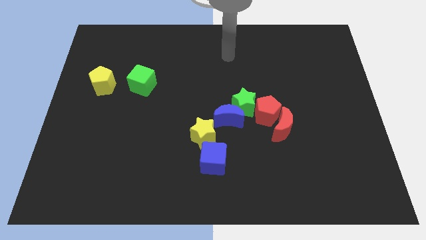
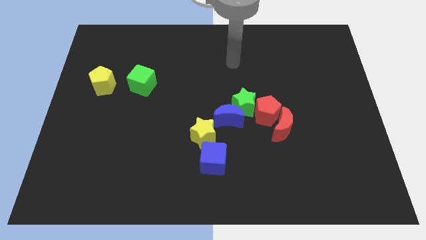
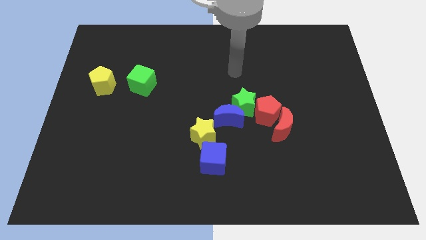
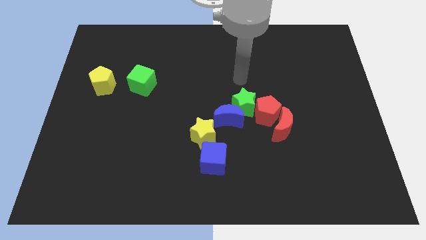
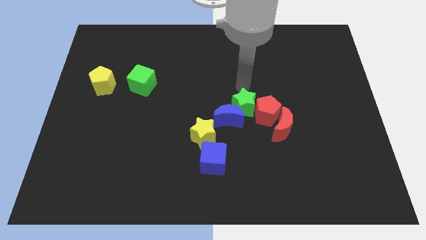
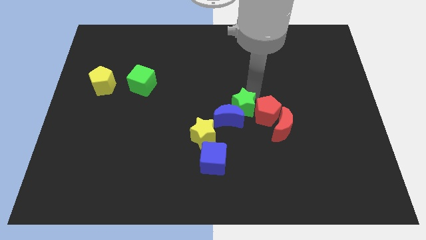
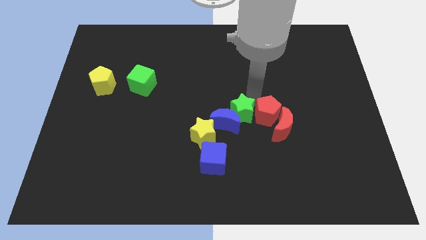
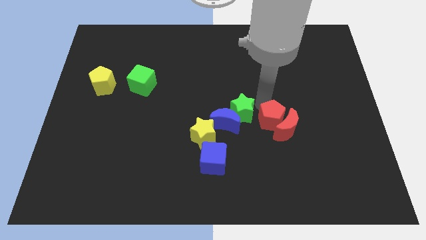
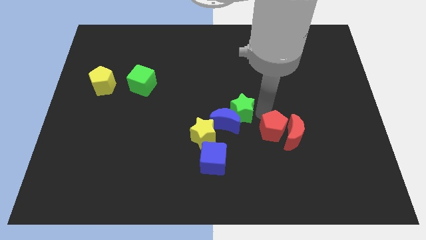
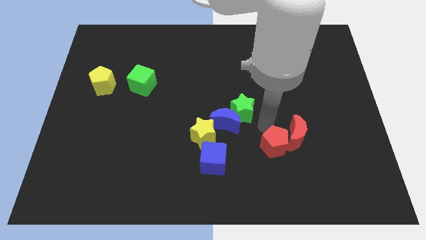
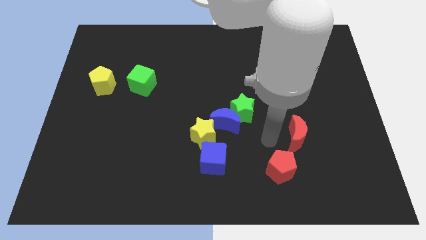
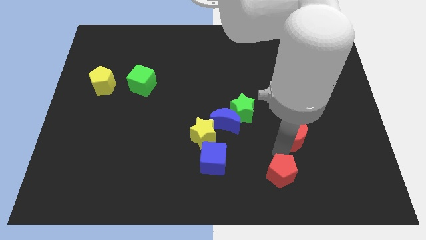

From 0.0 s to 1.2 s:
move the red moon away from the red pentagon

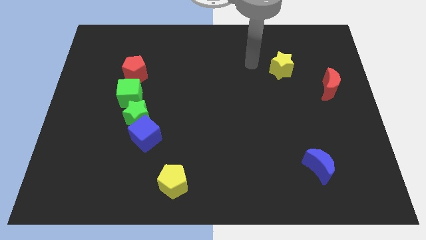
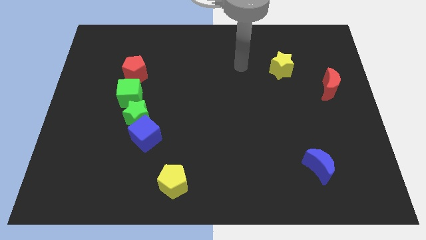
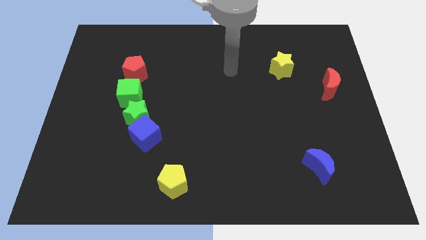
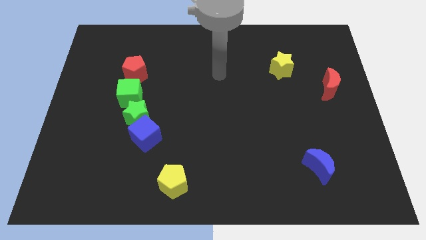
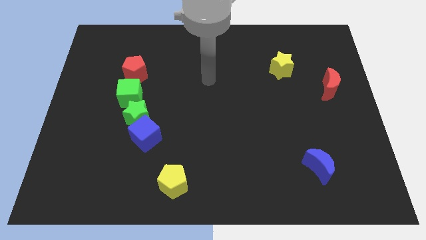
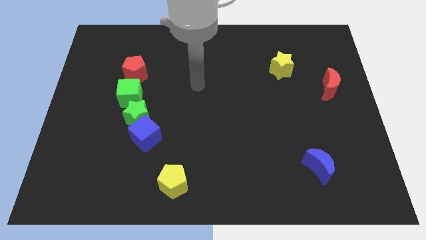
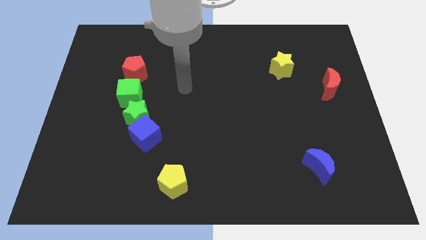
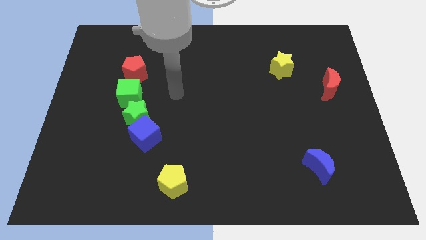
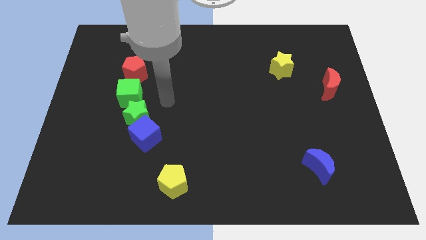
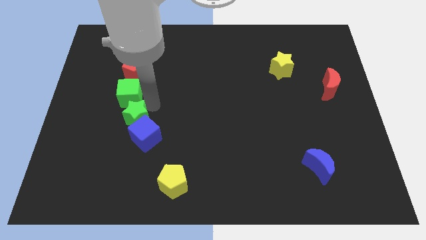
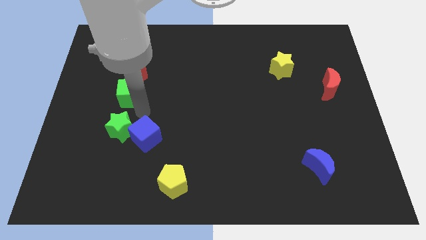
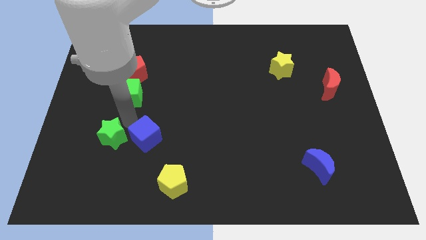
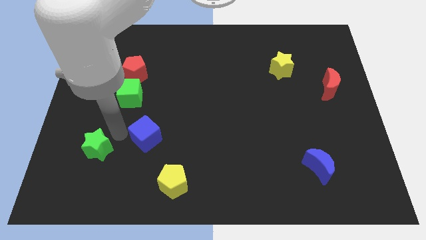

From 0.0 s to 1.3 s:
move the blue cube away from the green star

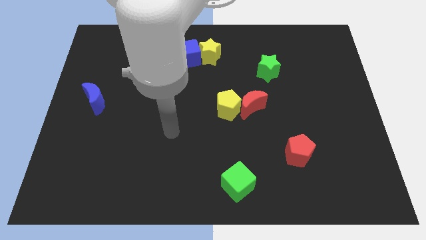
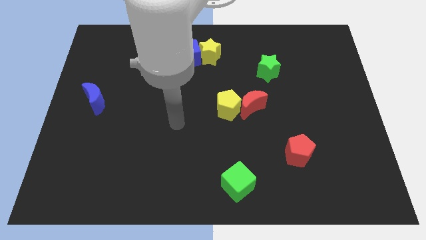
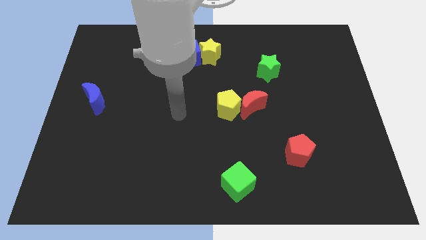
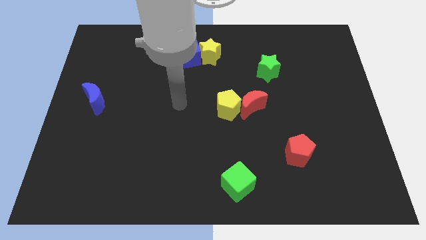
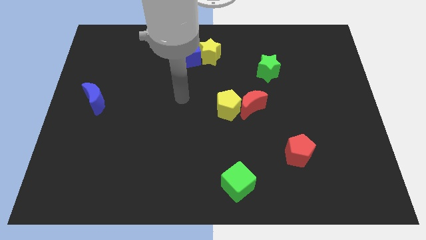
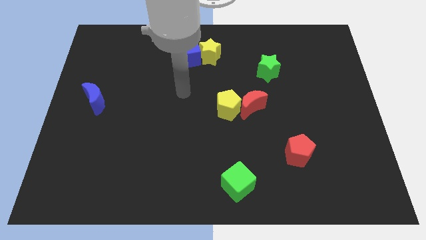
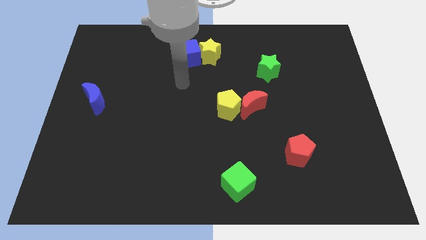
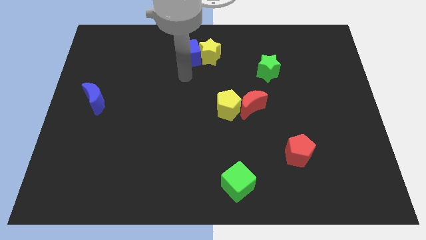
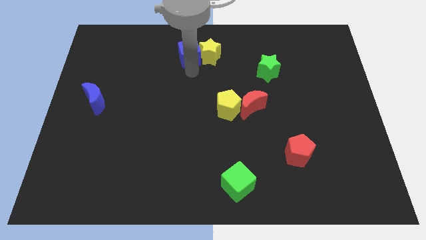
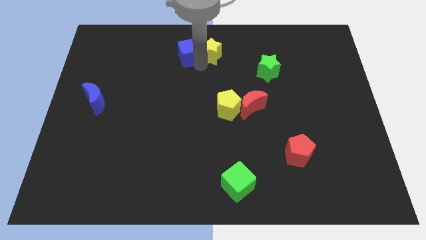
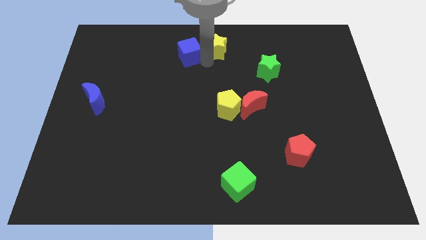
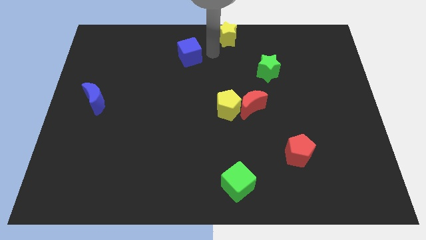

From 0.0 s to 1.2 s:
move the blue cube away from the yellow star

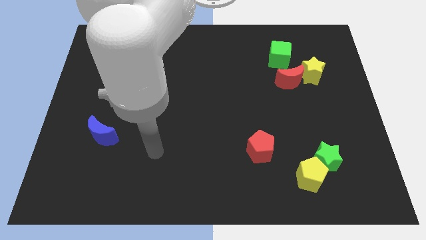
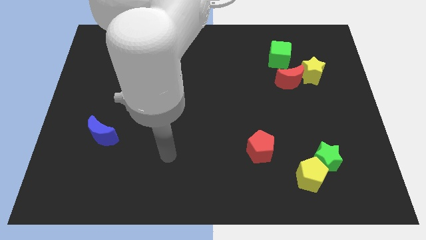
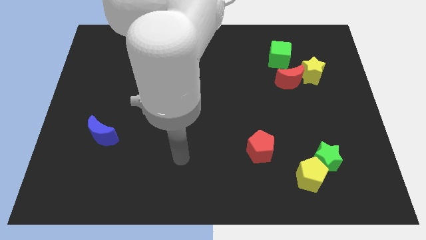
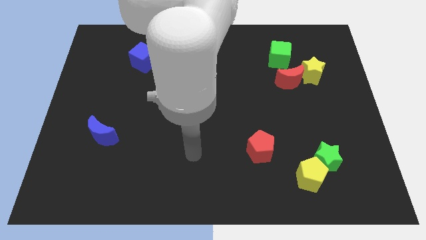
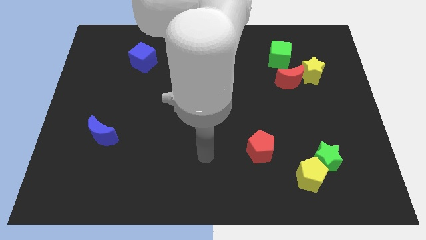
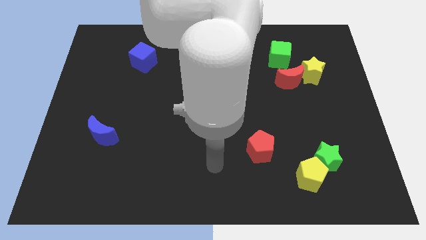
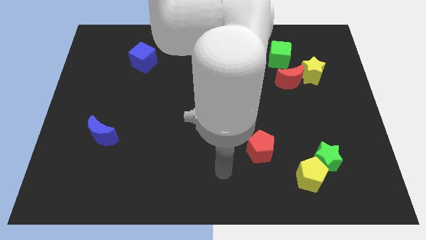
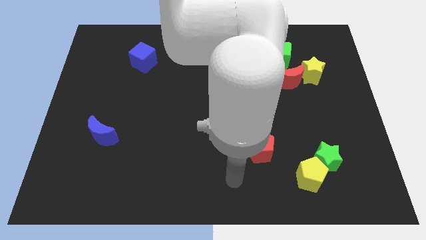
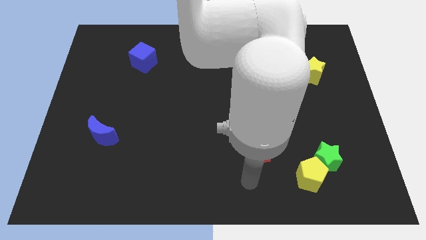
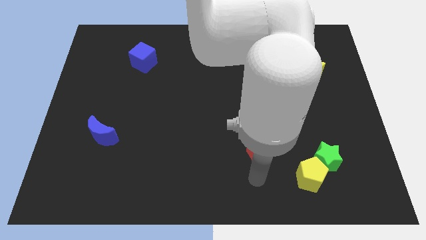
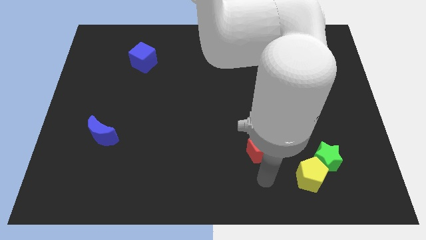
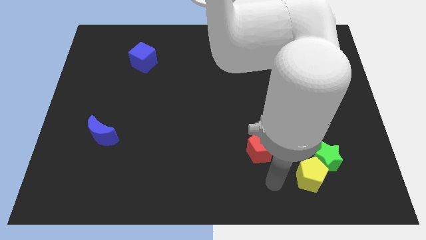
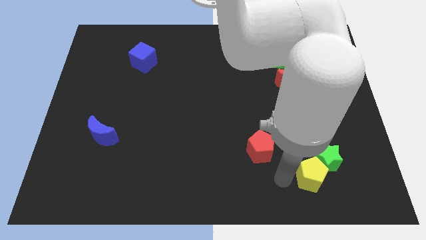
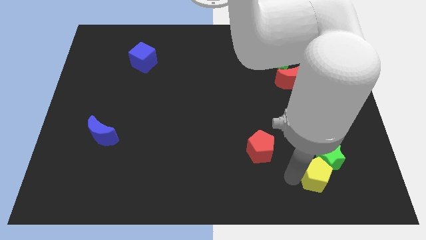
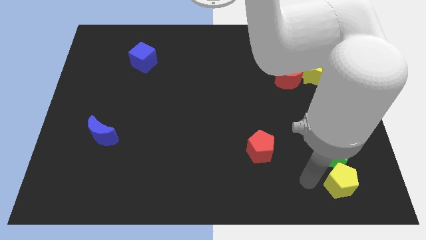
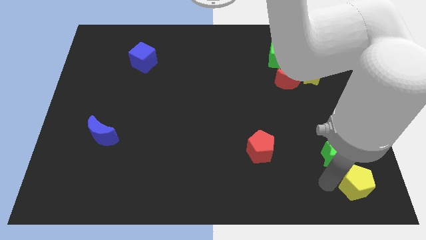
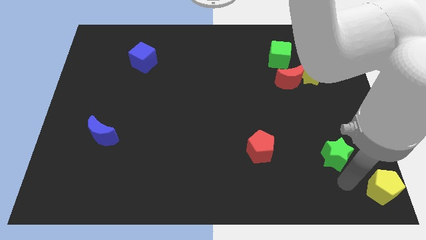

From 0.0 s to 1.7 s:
move the green star away from the yellow pentagon

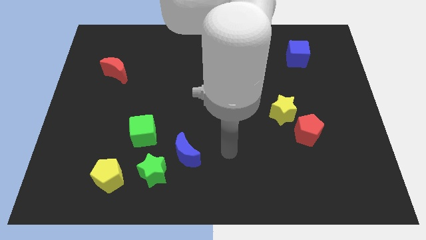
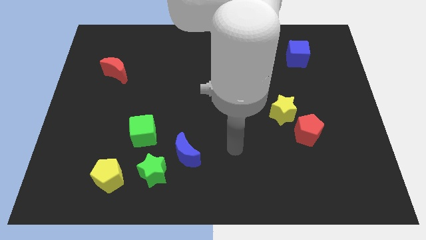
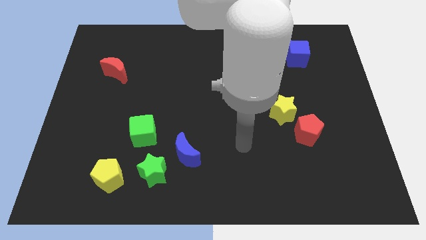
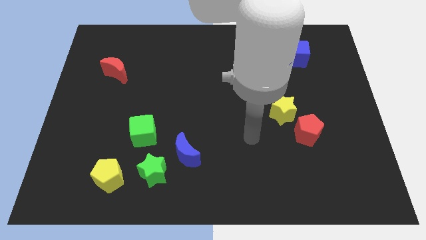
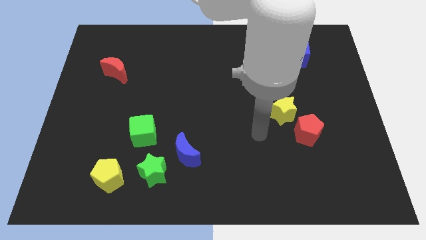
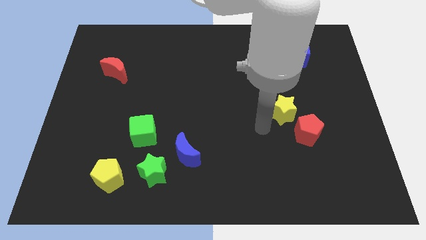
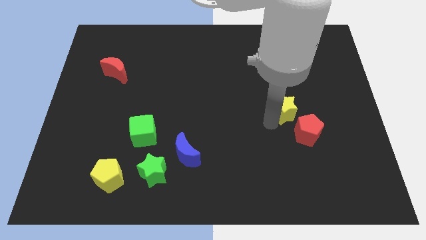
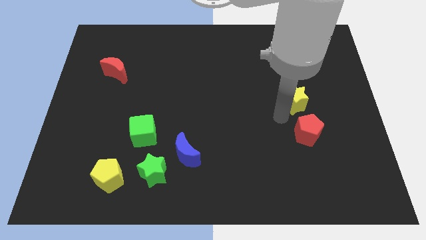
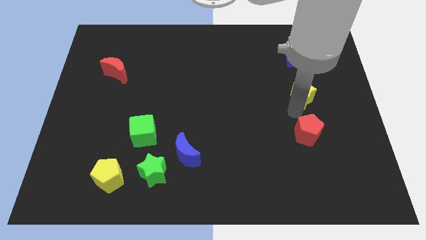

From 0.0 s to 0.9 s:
pull the red pentagon apart from the yellow star

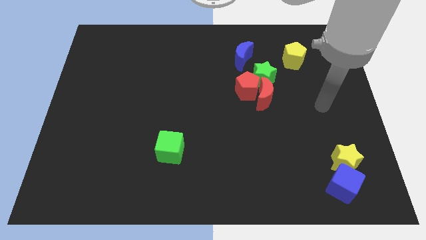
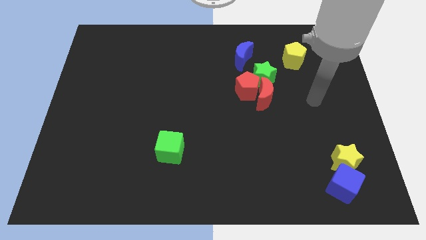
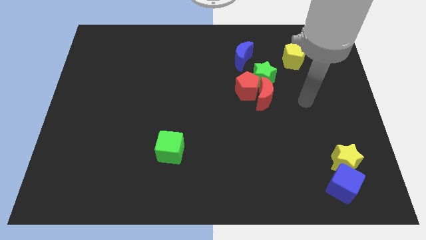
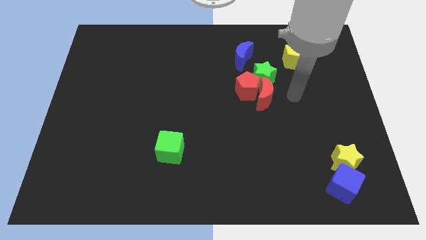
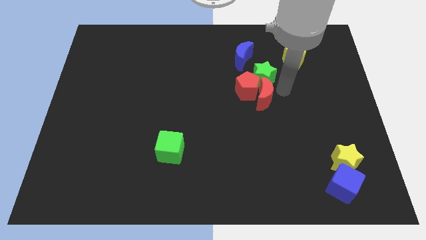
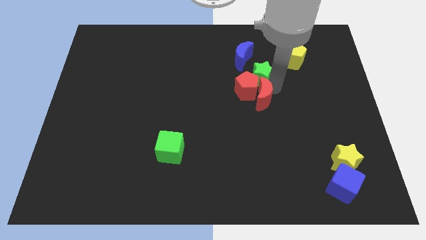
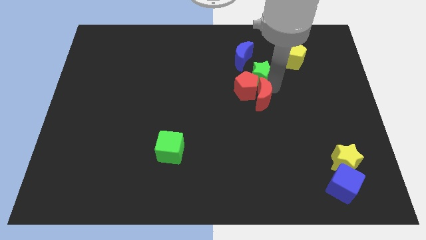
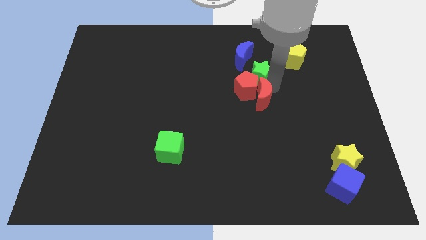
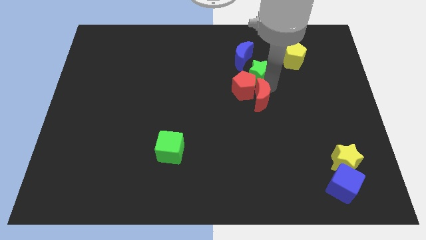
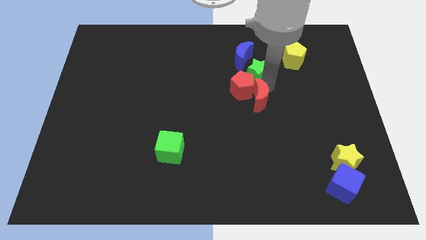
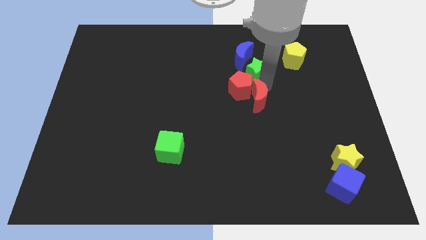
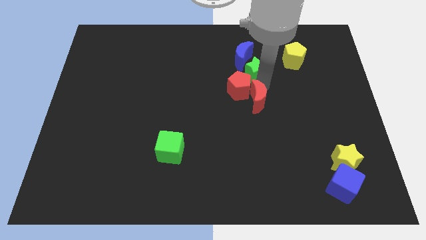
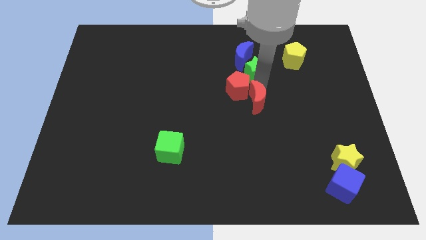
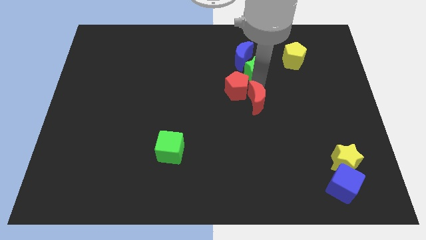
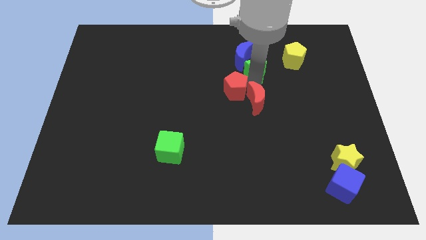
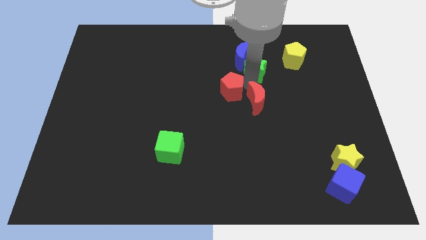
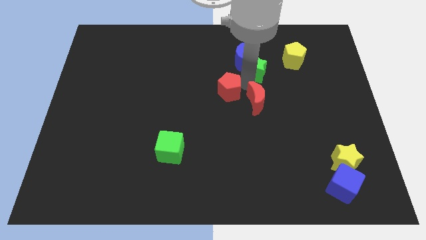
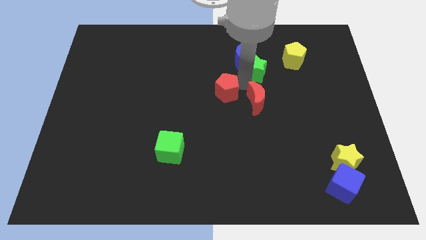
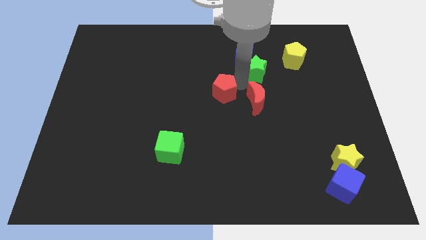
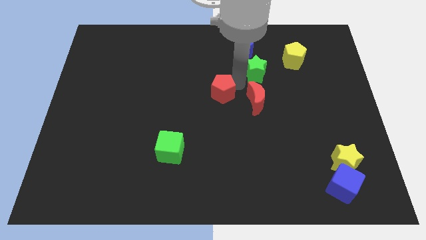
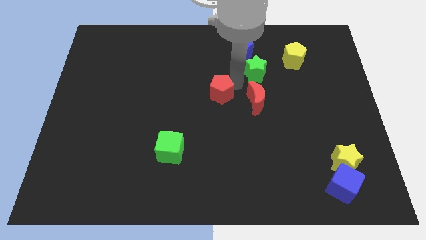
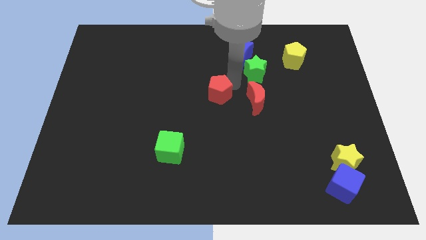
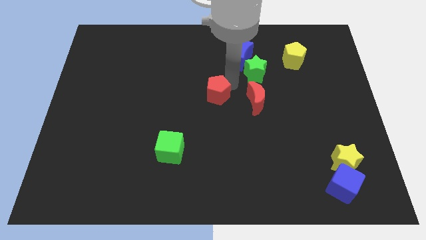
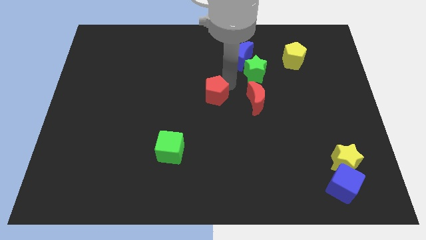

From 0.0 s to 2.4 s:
move the red pentagon away from the red moon and green star

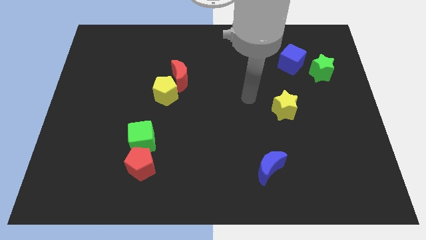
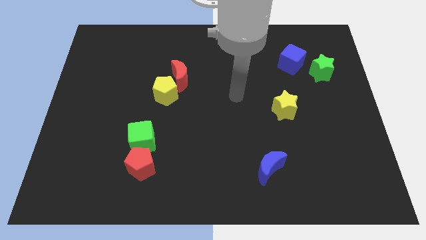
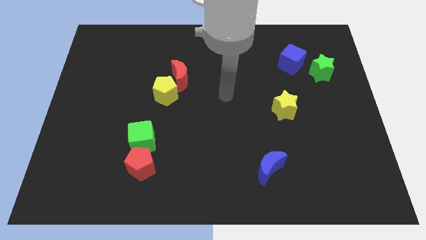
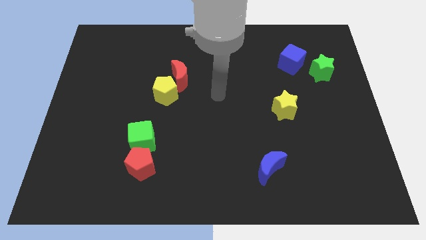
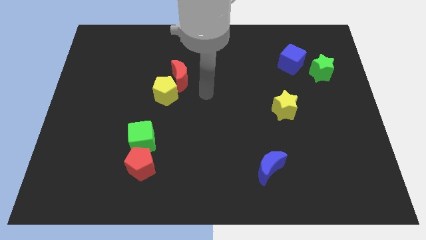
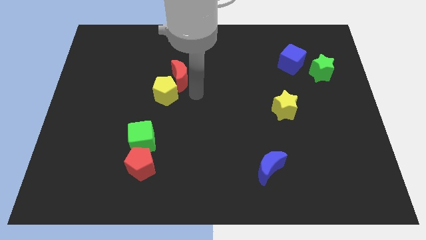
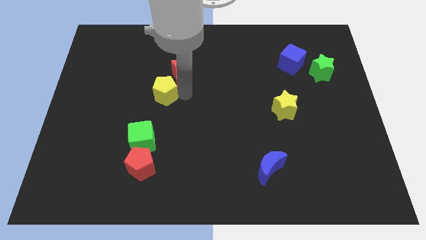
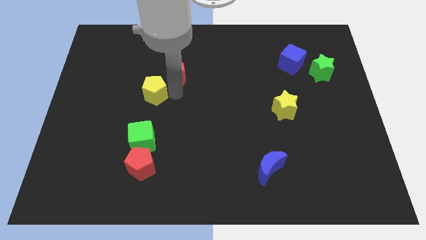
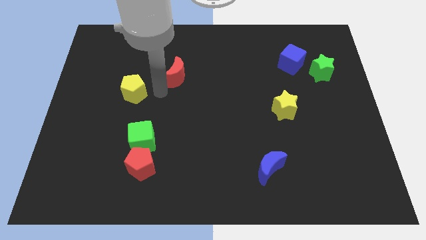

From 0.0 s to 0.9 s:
separate the red moon from the yellow pentagon
